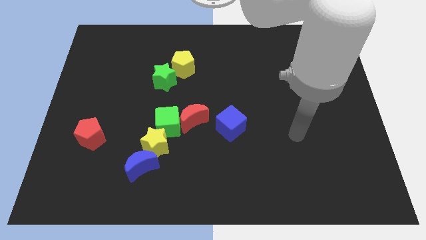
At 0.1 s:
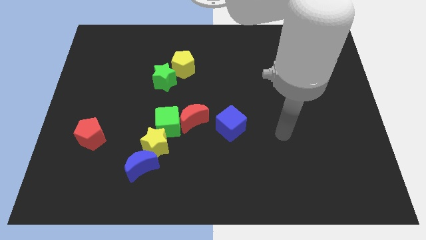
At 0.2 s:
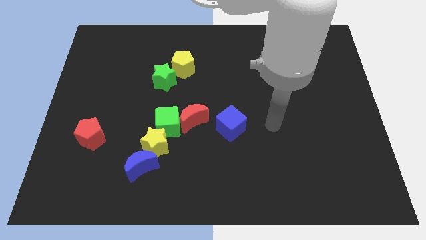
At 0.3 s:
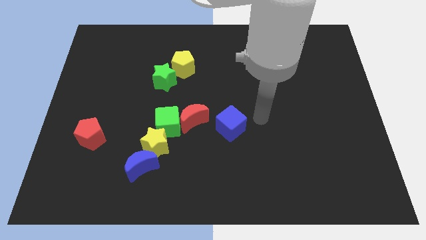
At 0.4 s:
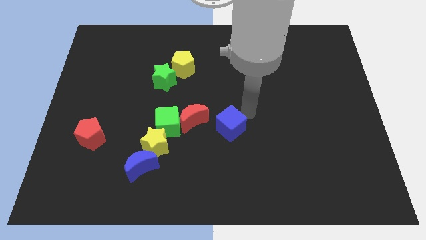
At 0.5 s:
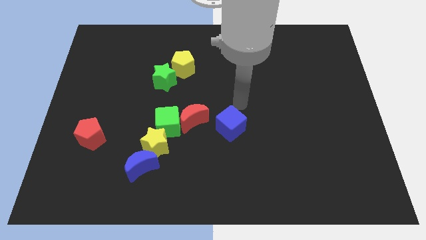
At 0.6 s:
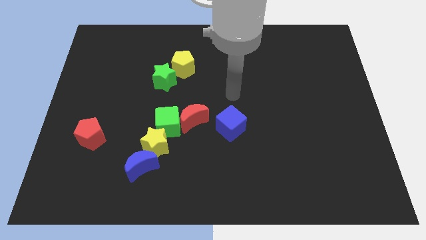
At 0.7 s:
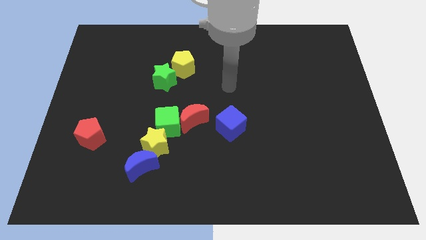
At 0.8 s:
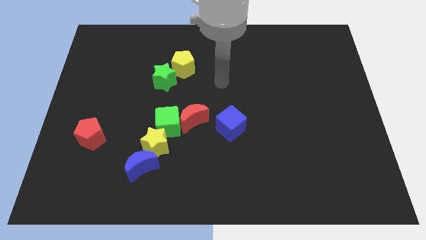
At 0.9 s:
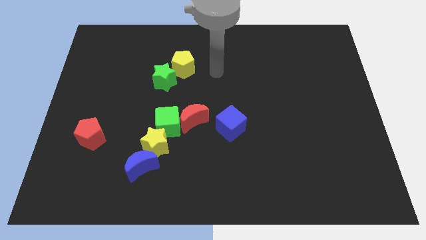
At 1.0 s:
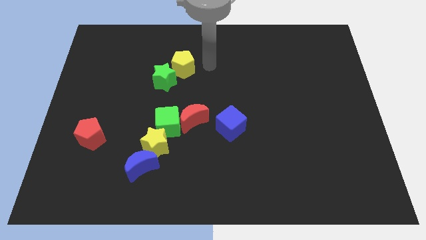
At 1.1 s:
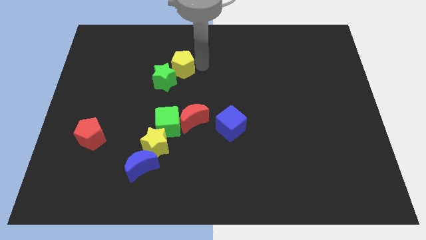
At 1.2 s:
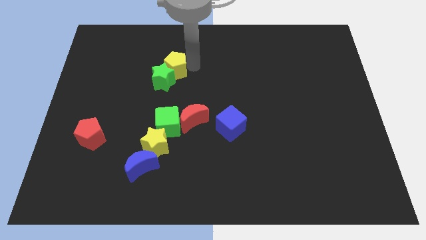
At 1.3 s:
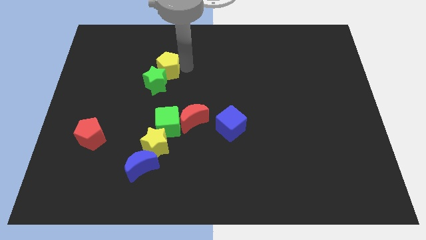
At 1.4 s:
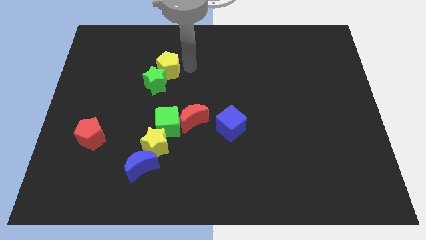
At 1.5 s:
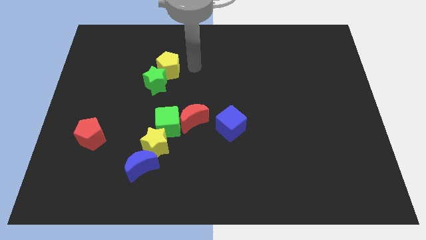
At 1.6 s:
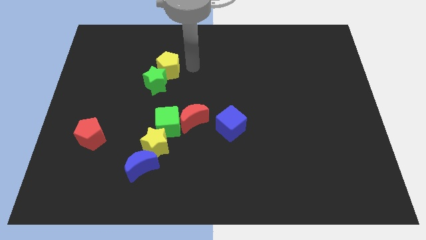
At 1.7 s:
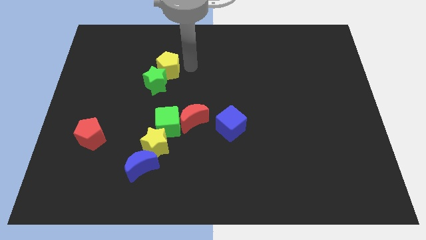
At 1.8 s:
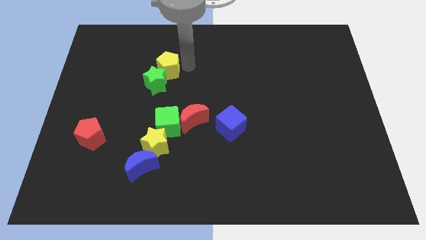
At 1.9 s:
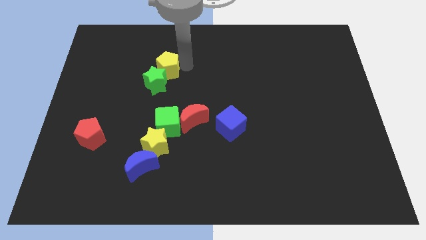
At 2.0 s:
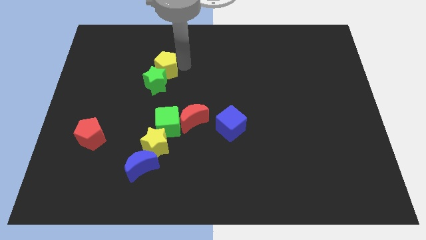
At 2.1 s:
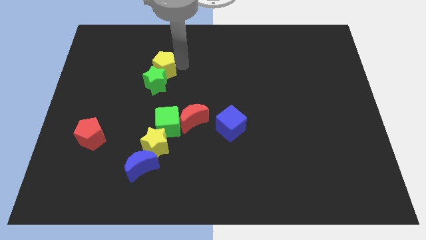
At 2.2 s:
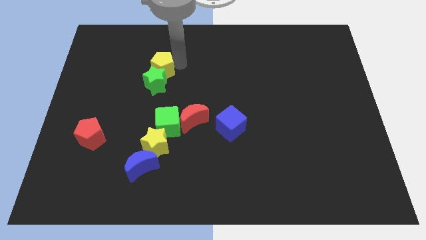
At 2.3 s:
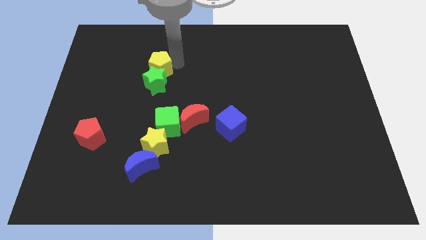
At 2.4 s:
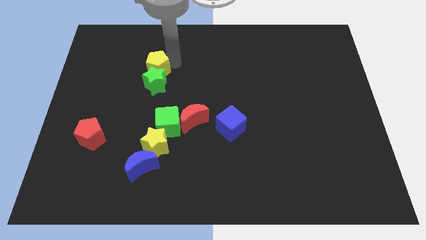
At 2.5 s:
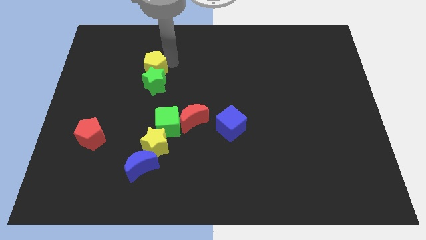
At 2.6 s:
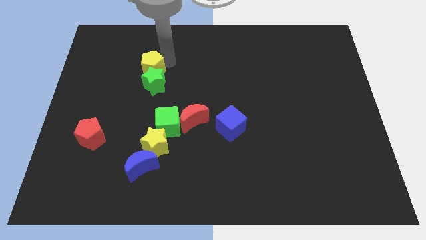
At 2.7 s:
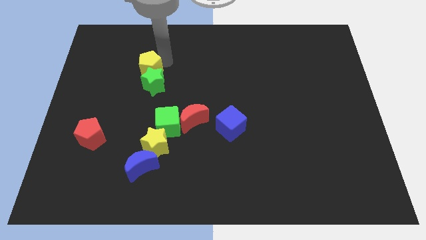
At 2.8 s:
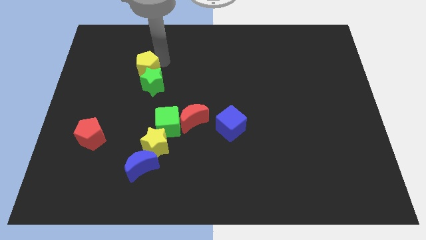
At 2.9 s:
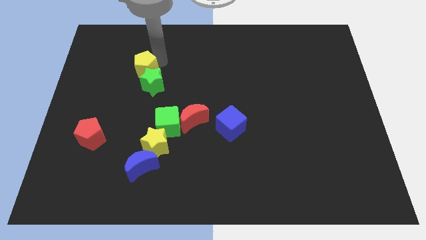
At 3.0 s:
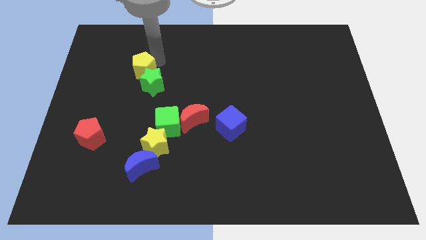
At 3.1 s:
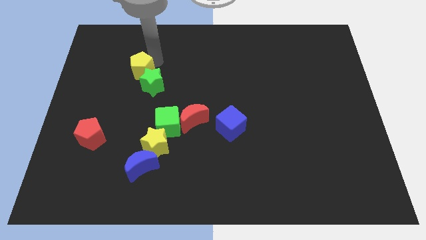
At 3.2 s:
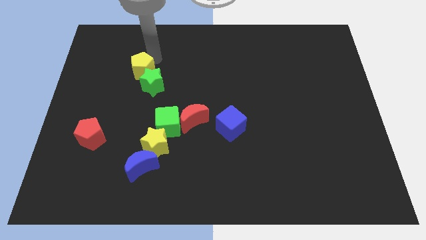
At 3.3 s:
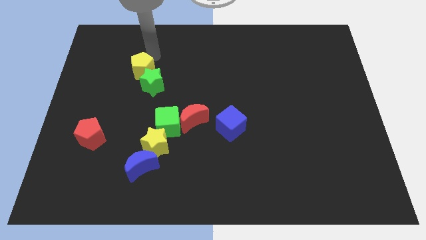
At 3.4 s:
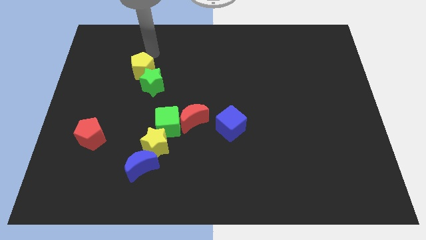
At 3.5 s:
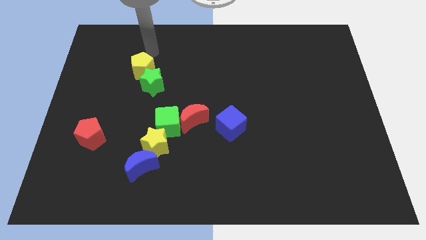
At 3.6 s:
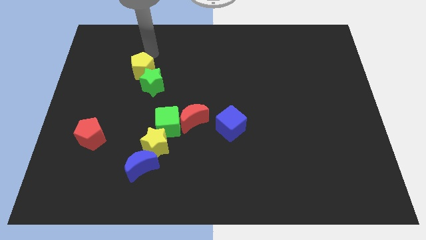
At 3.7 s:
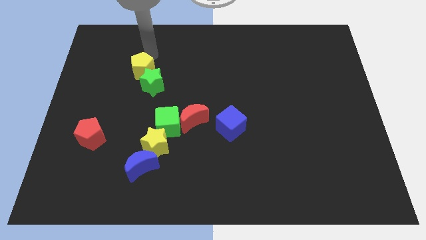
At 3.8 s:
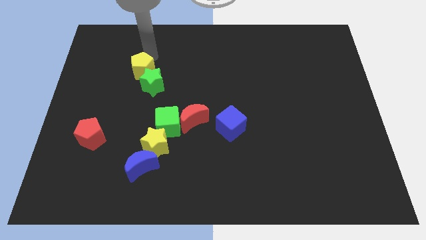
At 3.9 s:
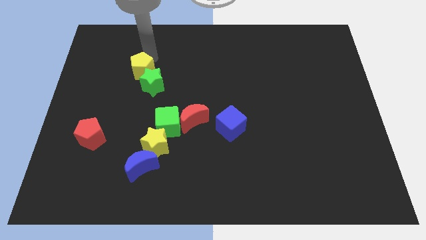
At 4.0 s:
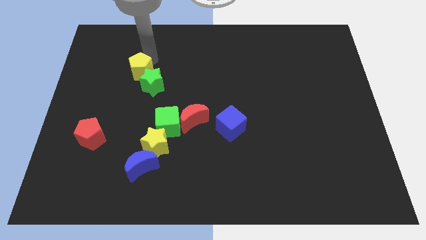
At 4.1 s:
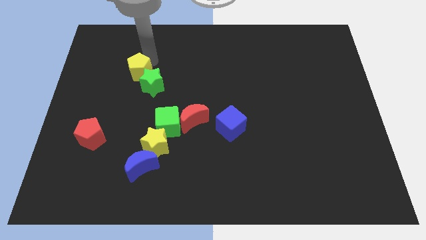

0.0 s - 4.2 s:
push the yellow pentagon diagonally downwards and left somewhat

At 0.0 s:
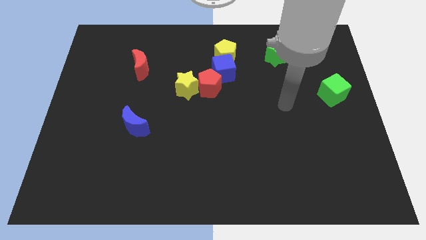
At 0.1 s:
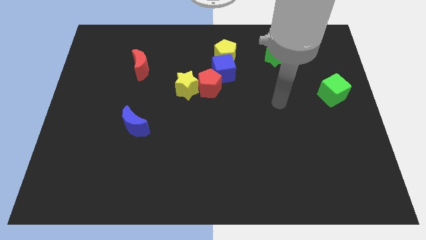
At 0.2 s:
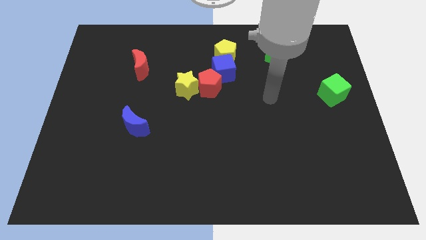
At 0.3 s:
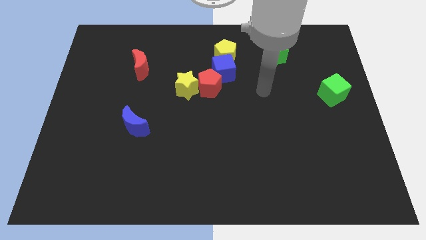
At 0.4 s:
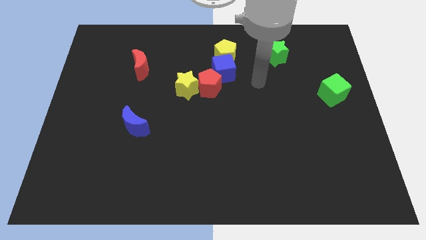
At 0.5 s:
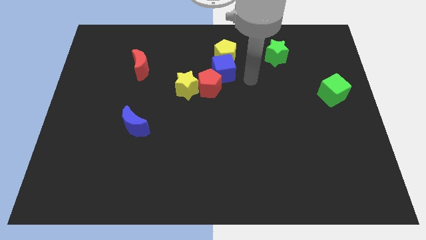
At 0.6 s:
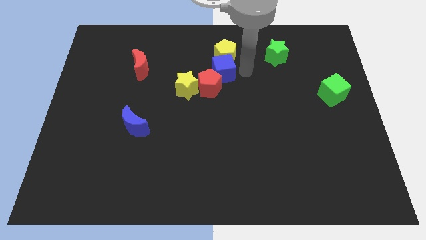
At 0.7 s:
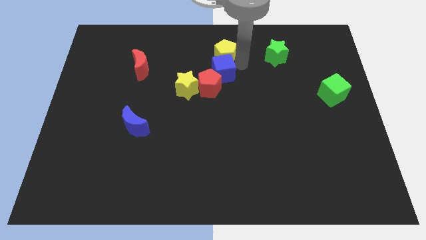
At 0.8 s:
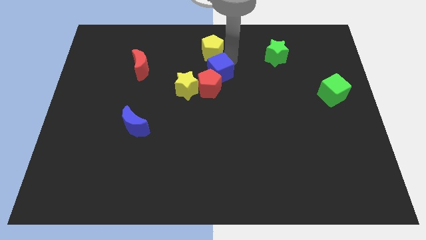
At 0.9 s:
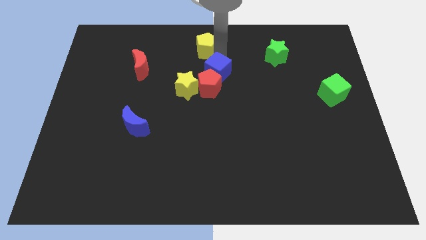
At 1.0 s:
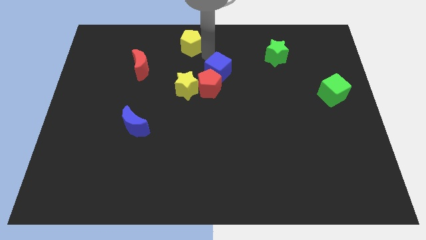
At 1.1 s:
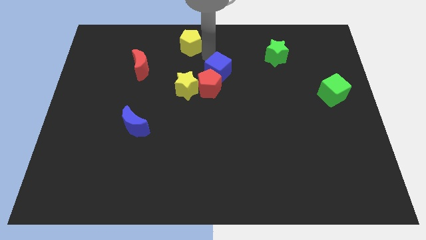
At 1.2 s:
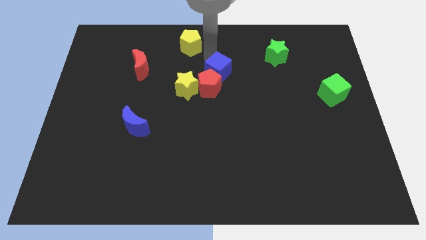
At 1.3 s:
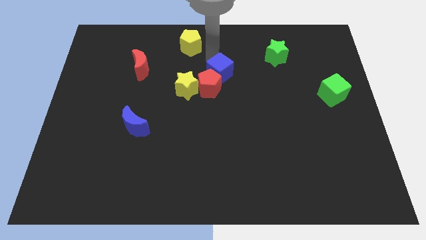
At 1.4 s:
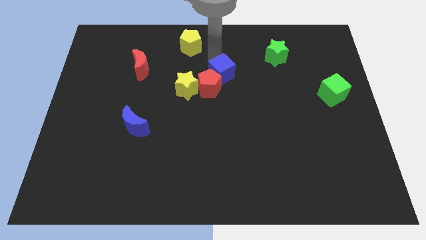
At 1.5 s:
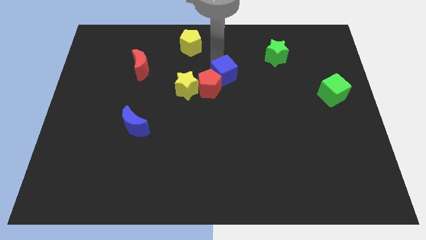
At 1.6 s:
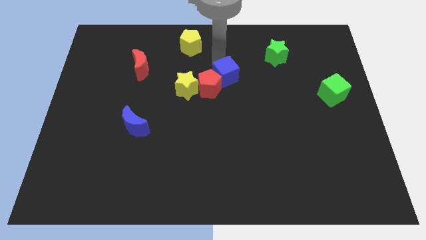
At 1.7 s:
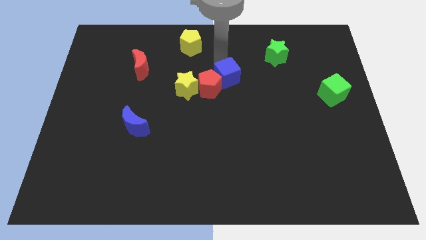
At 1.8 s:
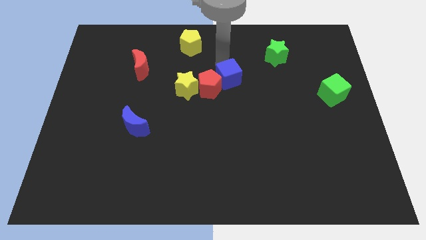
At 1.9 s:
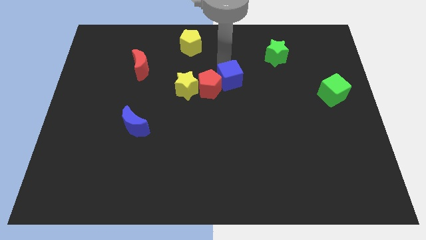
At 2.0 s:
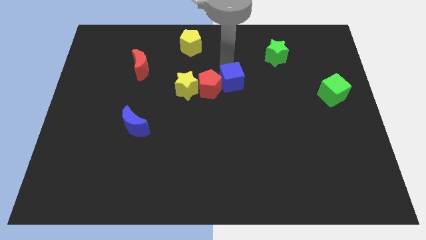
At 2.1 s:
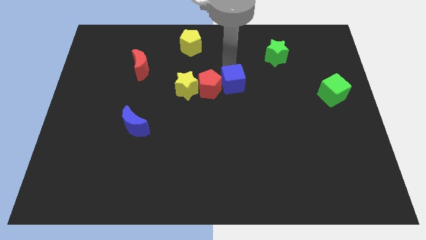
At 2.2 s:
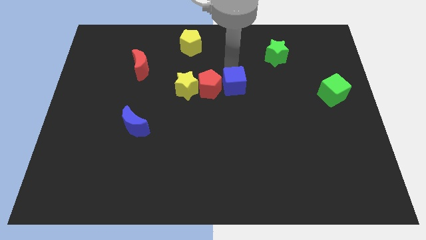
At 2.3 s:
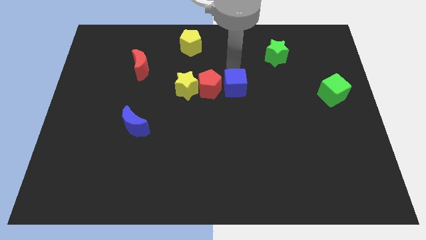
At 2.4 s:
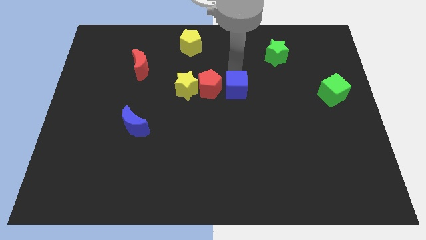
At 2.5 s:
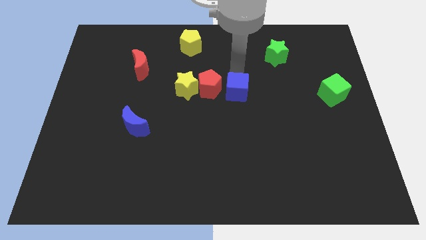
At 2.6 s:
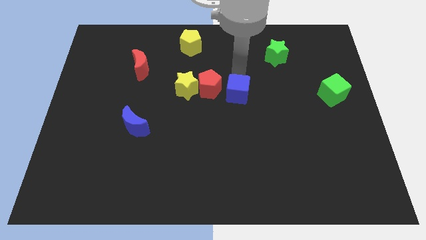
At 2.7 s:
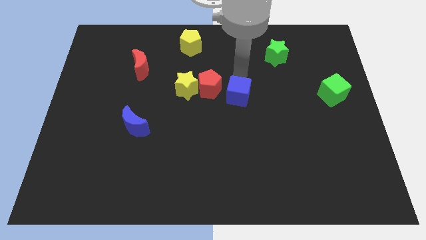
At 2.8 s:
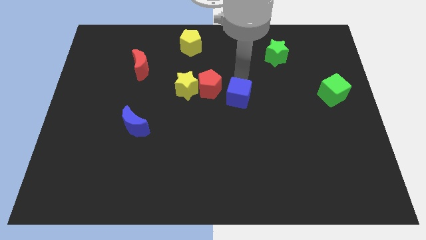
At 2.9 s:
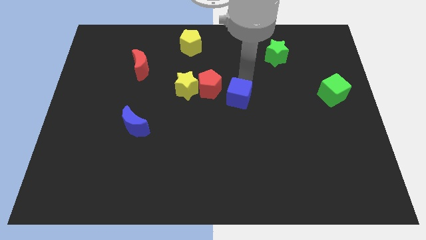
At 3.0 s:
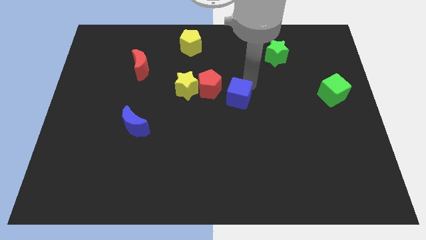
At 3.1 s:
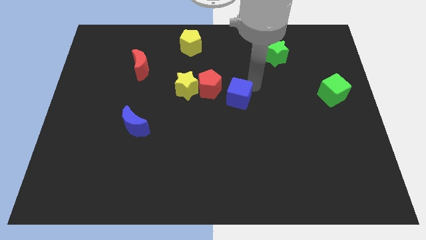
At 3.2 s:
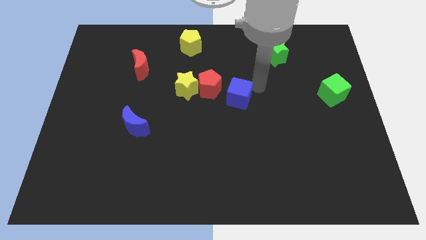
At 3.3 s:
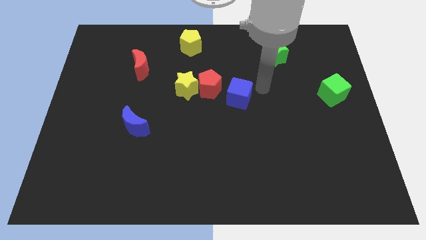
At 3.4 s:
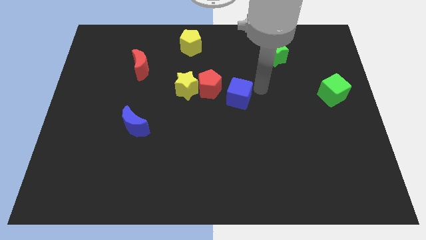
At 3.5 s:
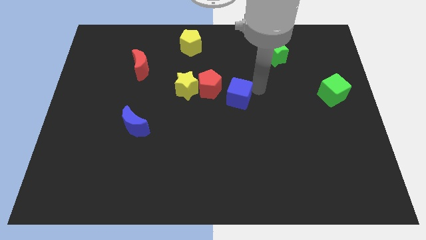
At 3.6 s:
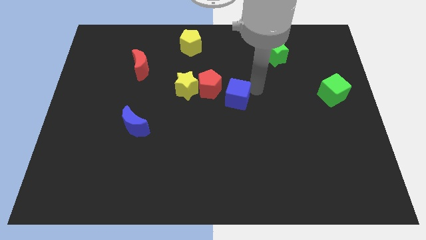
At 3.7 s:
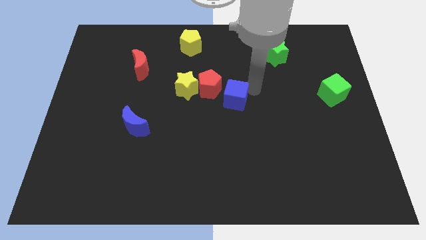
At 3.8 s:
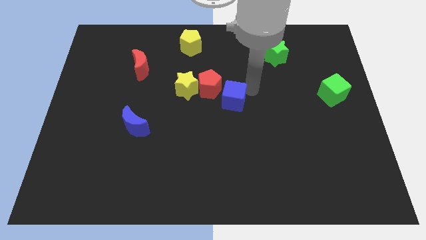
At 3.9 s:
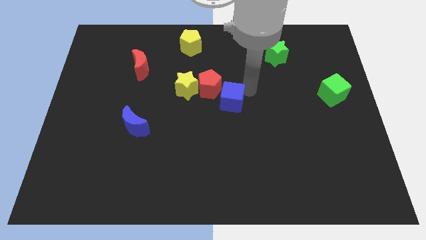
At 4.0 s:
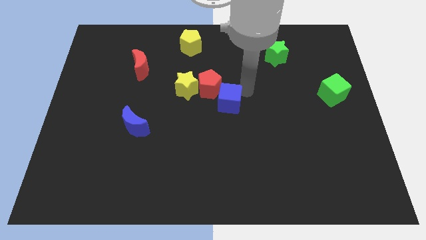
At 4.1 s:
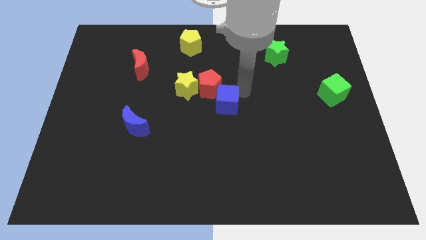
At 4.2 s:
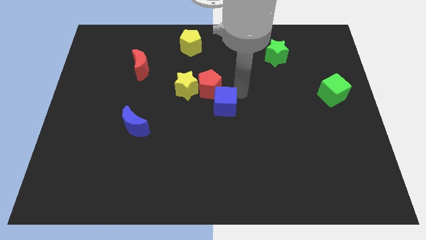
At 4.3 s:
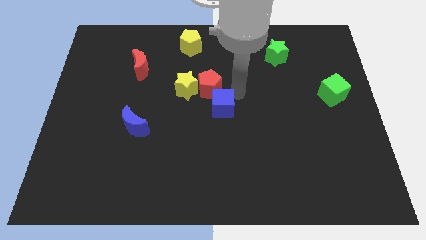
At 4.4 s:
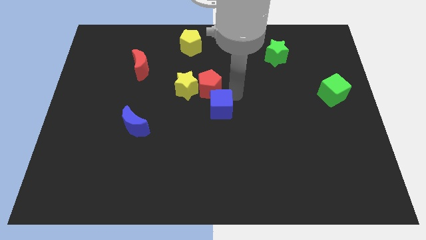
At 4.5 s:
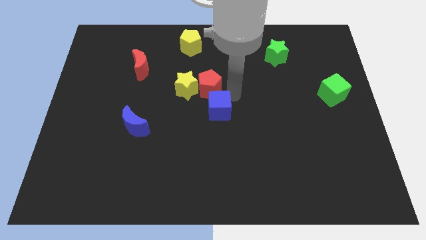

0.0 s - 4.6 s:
push the blue cube down and left a little bit
